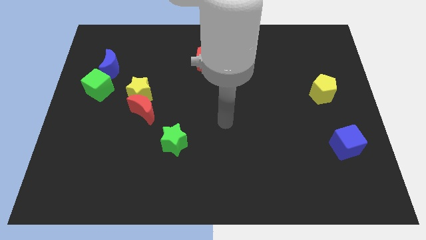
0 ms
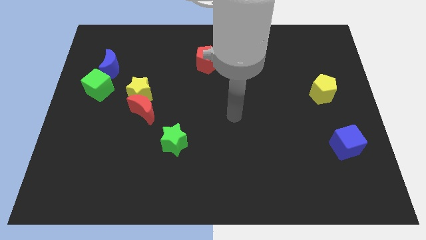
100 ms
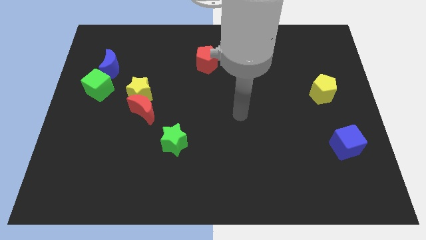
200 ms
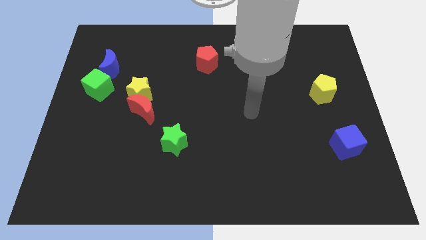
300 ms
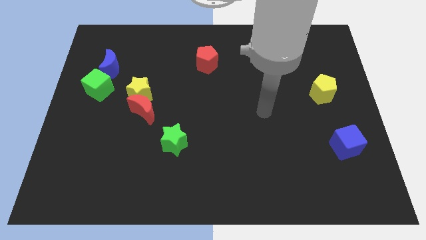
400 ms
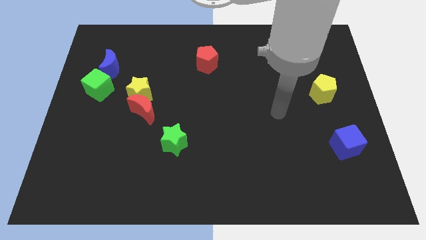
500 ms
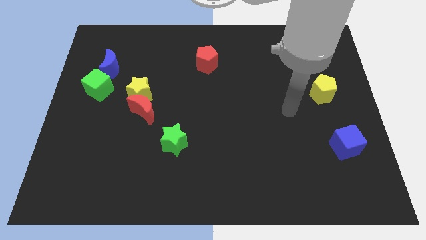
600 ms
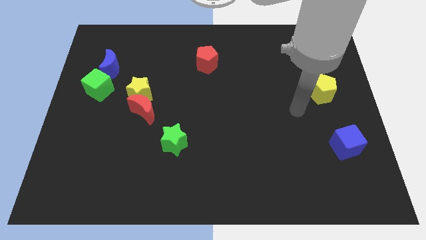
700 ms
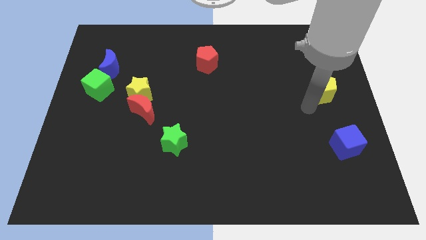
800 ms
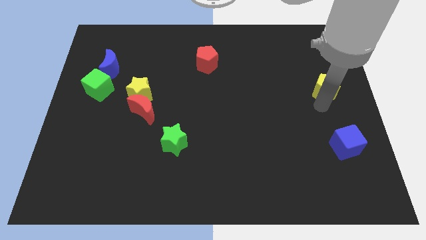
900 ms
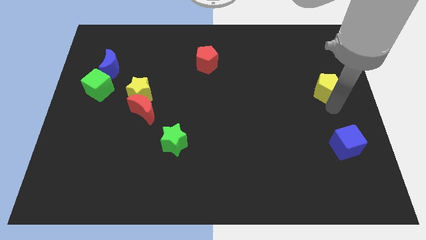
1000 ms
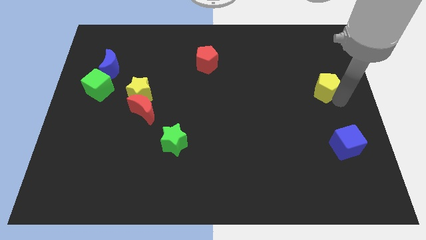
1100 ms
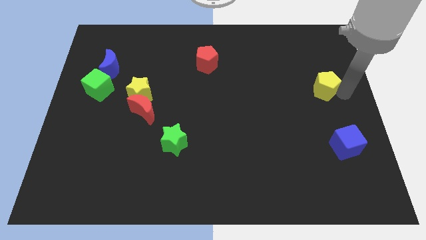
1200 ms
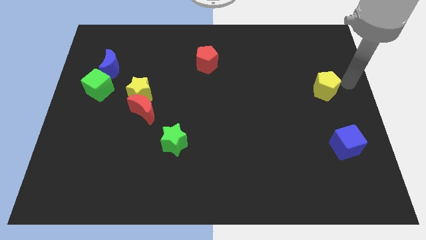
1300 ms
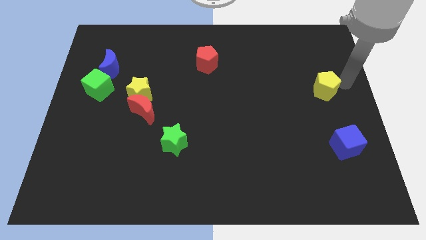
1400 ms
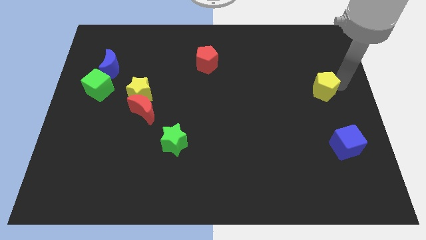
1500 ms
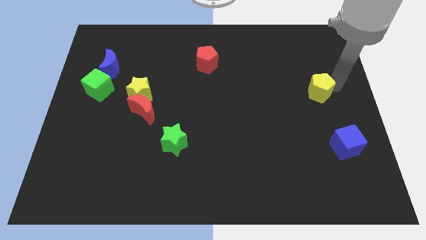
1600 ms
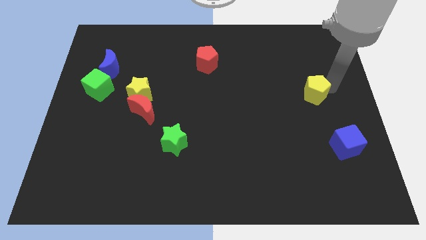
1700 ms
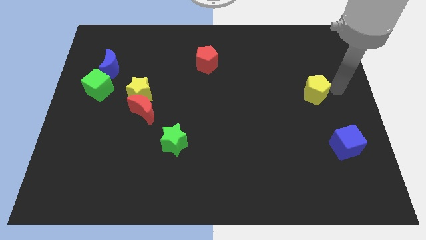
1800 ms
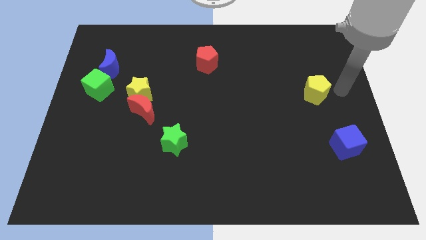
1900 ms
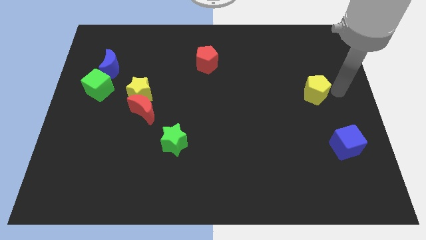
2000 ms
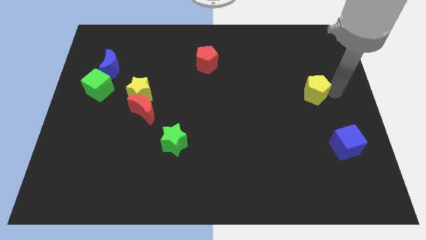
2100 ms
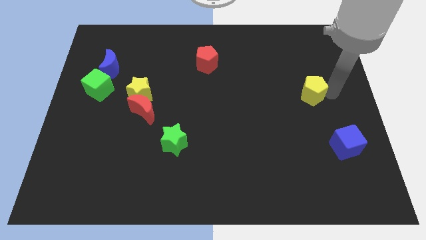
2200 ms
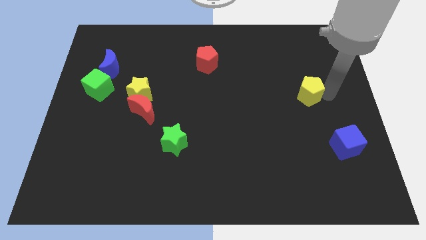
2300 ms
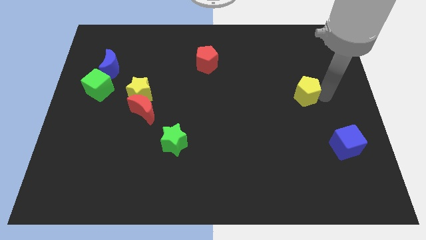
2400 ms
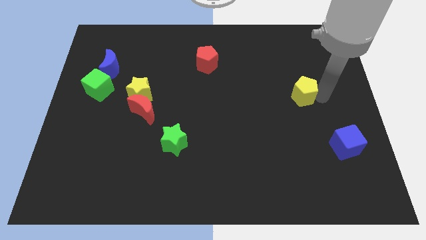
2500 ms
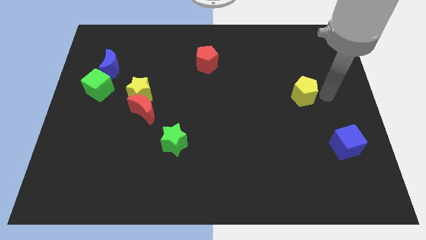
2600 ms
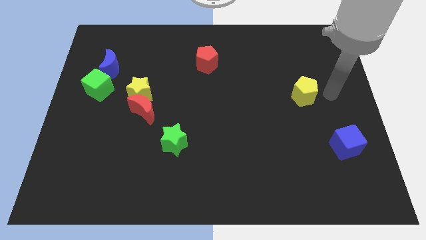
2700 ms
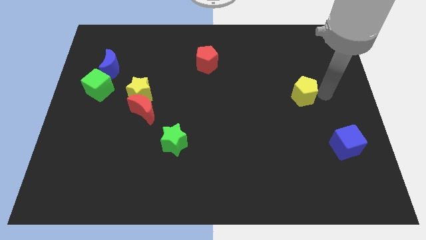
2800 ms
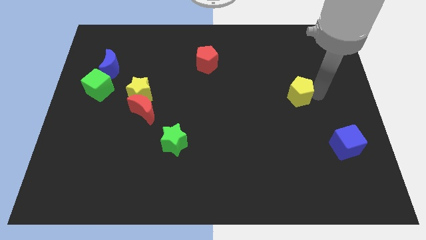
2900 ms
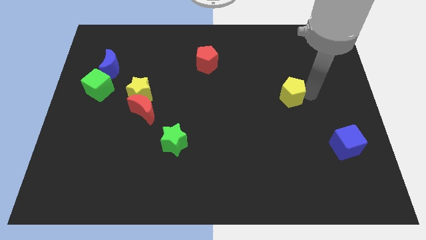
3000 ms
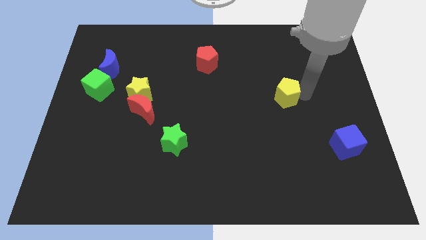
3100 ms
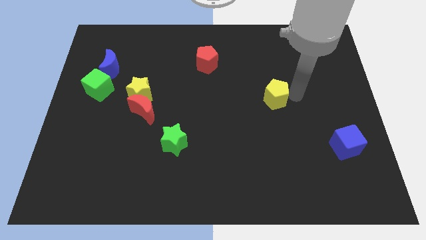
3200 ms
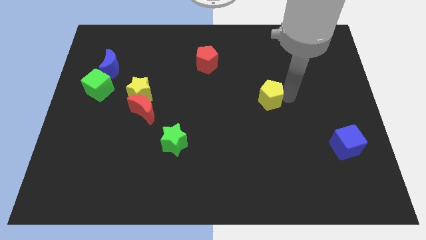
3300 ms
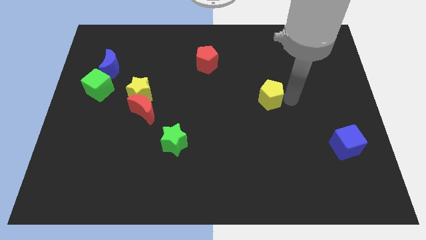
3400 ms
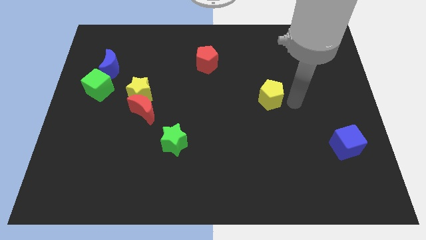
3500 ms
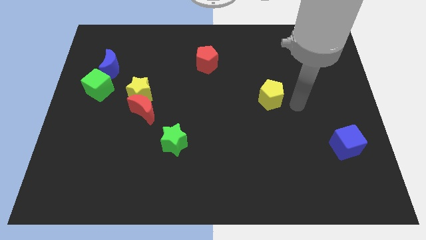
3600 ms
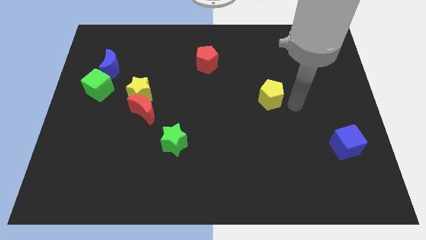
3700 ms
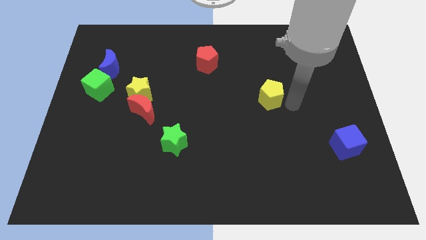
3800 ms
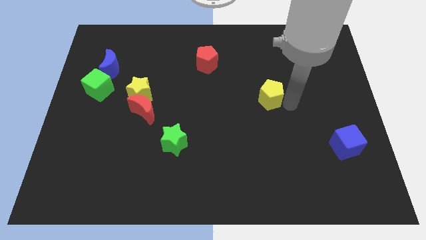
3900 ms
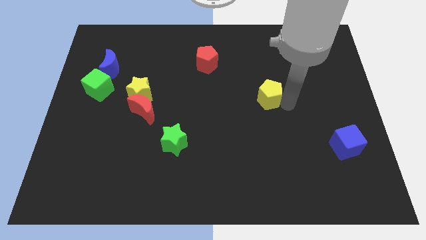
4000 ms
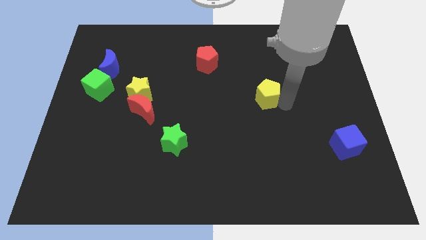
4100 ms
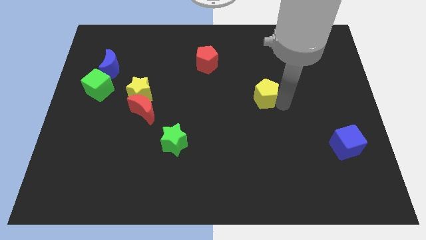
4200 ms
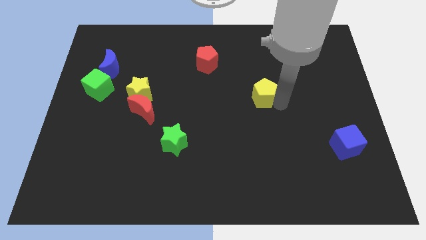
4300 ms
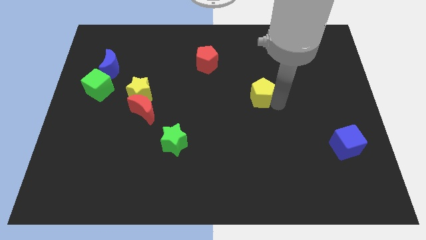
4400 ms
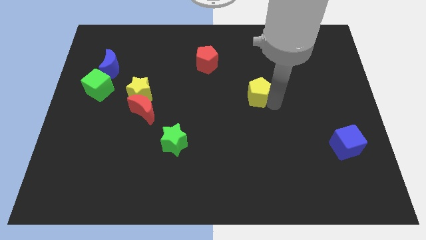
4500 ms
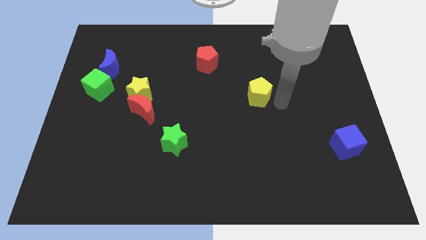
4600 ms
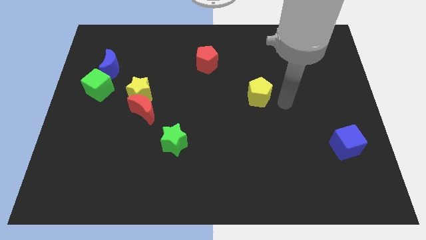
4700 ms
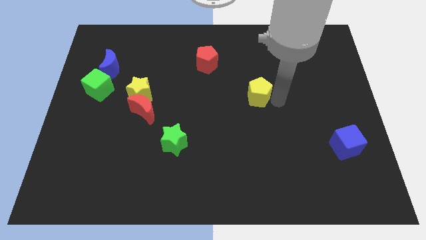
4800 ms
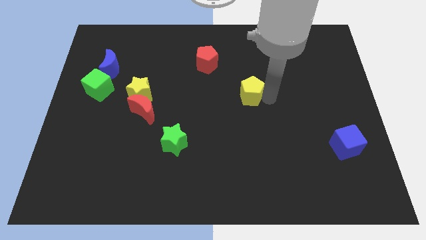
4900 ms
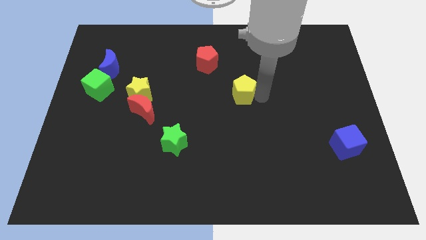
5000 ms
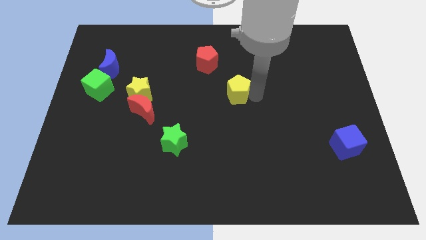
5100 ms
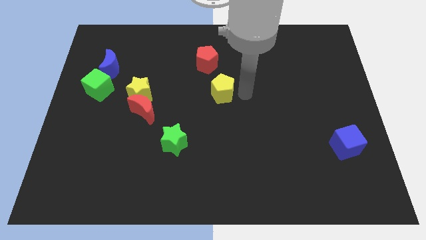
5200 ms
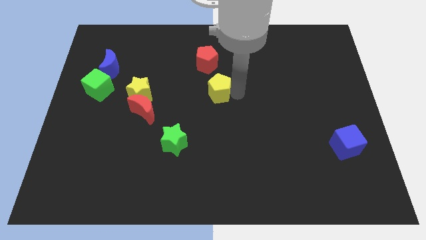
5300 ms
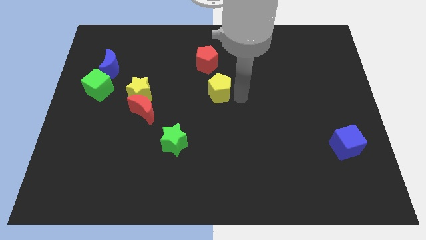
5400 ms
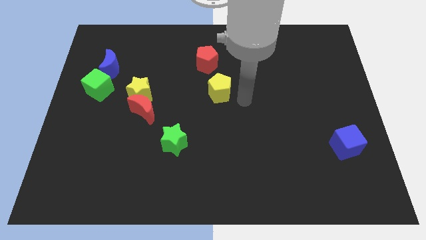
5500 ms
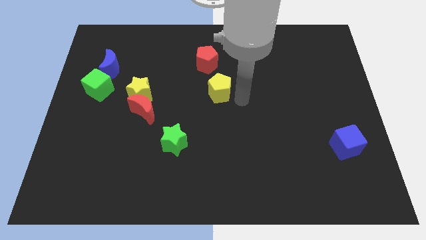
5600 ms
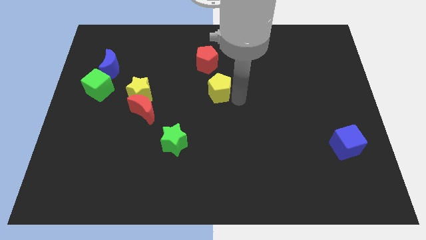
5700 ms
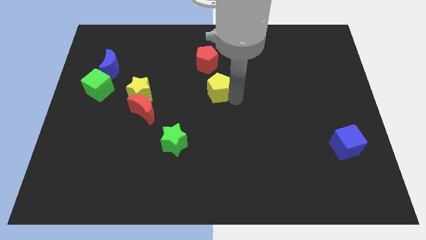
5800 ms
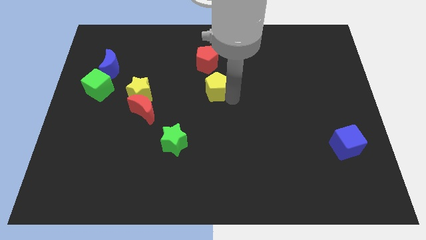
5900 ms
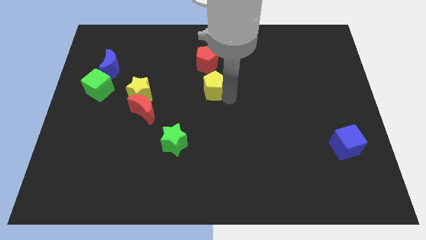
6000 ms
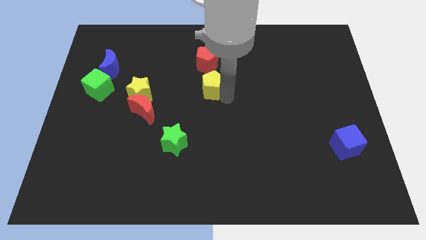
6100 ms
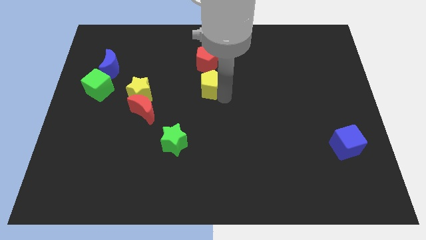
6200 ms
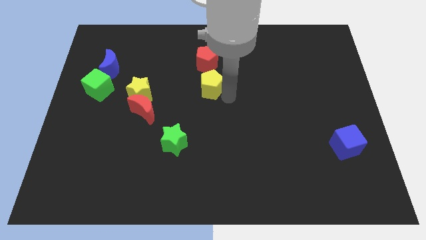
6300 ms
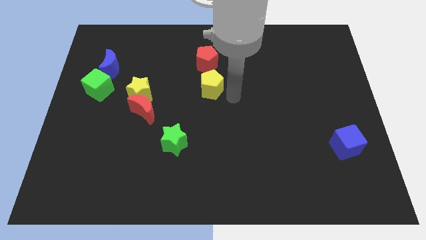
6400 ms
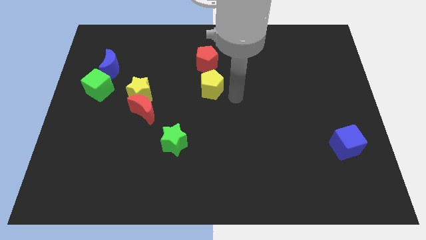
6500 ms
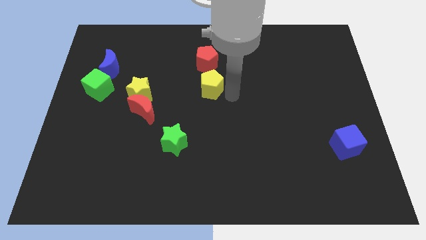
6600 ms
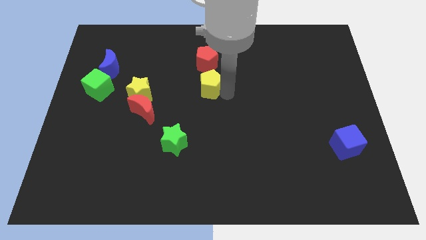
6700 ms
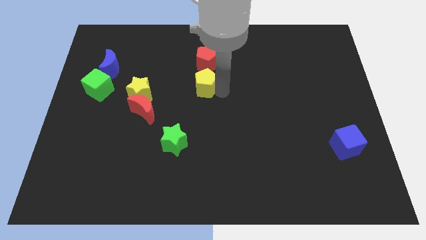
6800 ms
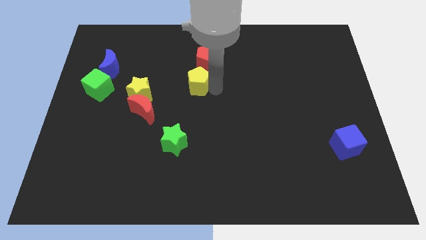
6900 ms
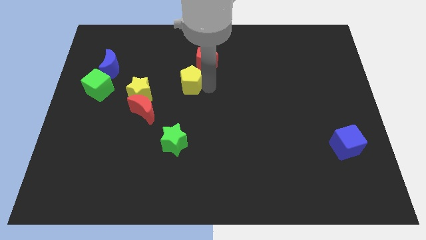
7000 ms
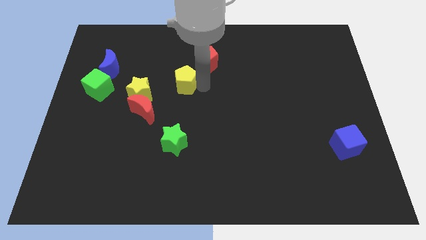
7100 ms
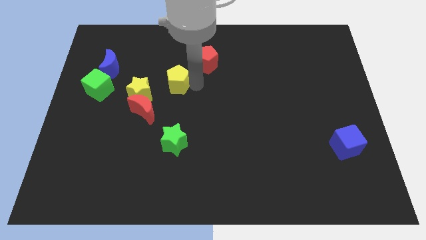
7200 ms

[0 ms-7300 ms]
push the yellow pentagon to the top right side of the yellow star
